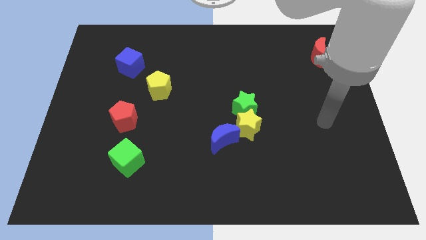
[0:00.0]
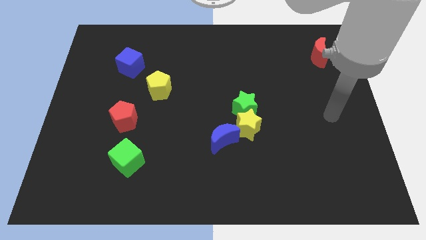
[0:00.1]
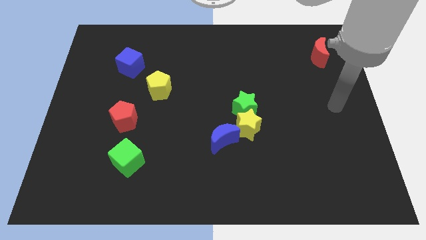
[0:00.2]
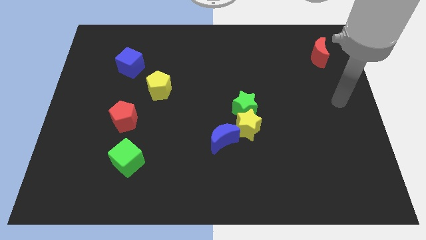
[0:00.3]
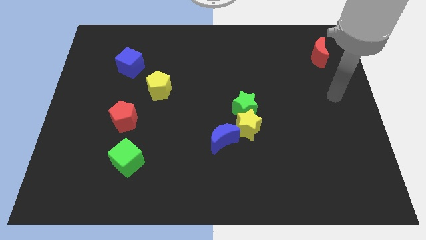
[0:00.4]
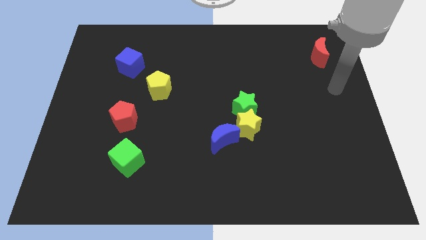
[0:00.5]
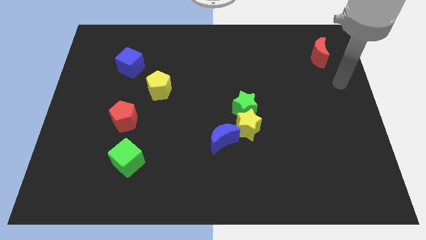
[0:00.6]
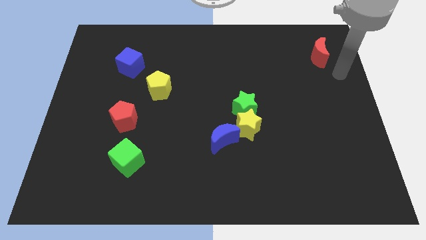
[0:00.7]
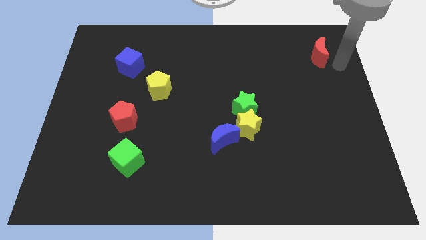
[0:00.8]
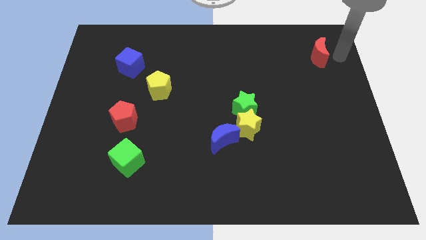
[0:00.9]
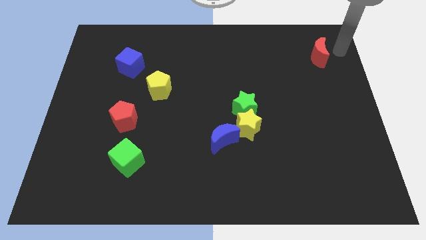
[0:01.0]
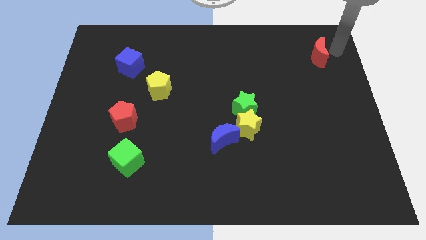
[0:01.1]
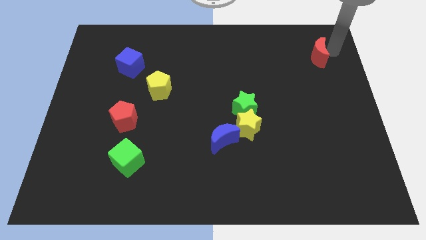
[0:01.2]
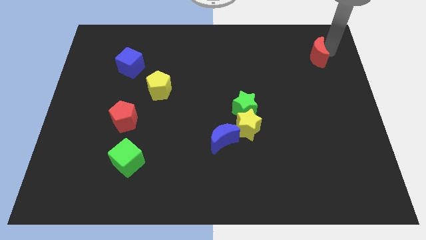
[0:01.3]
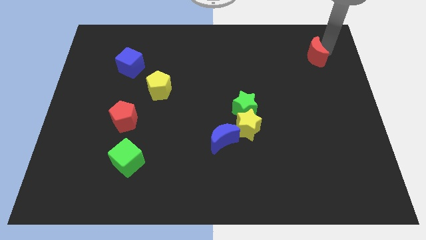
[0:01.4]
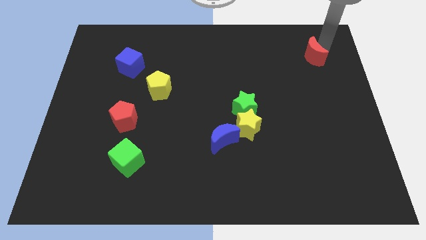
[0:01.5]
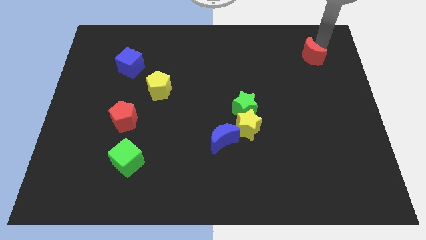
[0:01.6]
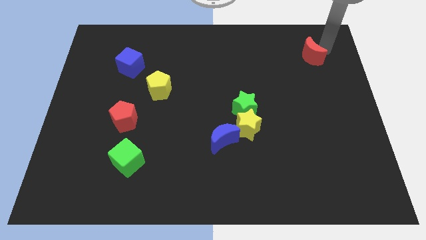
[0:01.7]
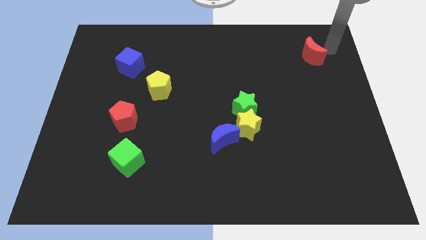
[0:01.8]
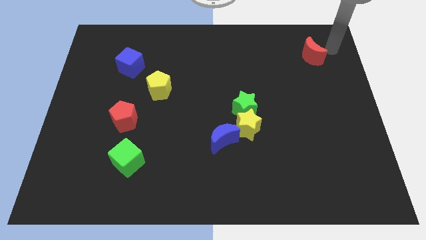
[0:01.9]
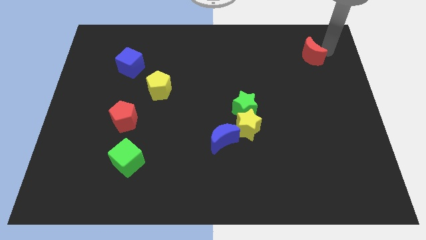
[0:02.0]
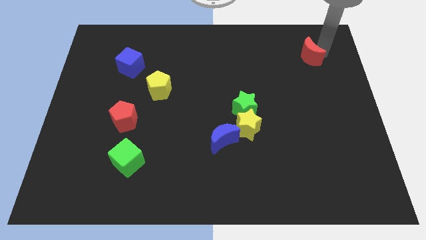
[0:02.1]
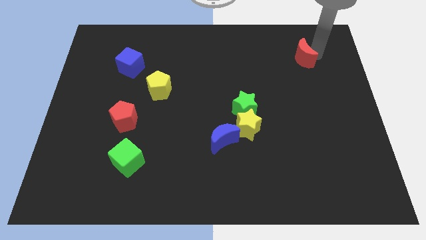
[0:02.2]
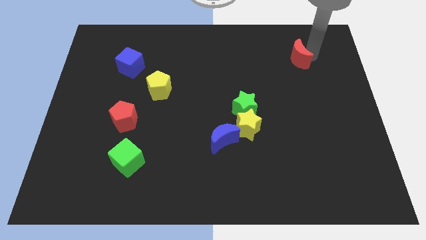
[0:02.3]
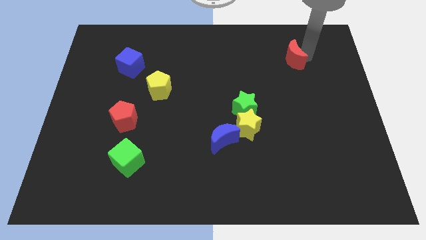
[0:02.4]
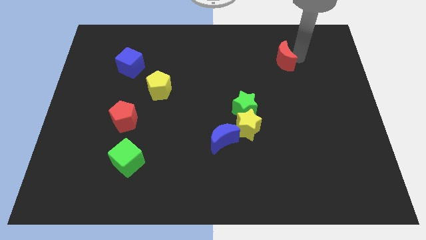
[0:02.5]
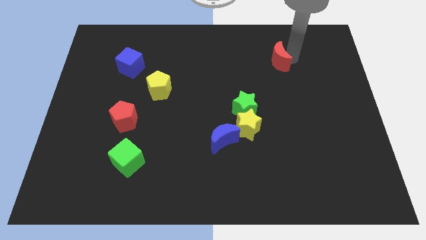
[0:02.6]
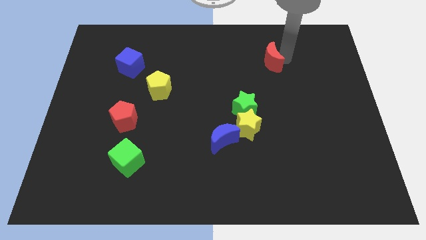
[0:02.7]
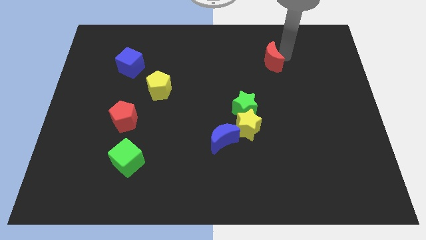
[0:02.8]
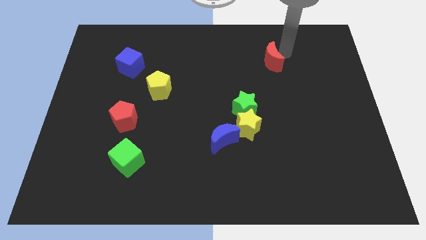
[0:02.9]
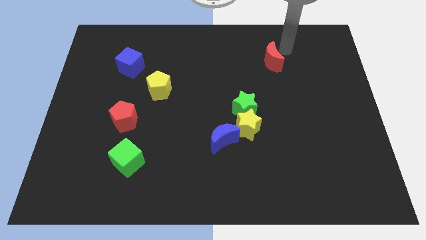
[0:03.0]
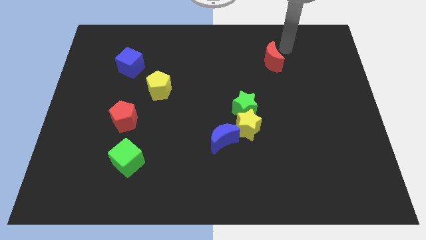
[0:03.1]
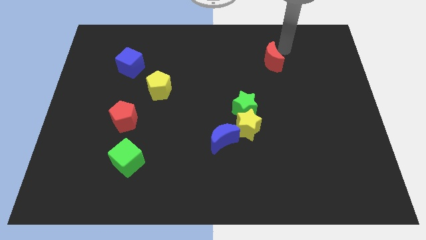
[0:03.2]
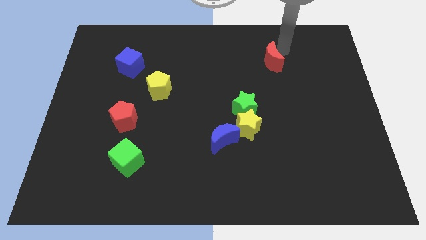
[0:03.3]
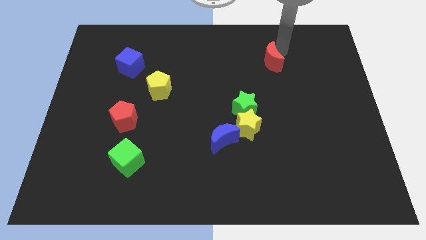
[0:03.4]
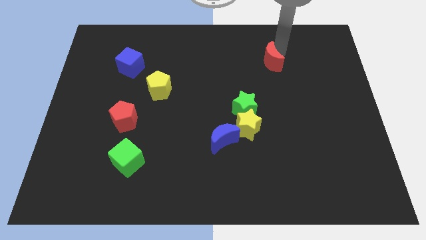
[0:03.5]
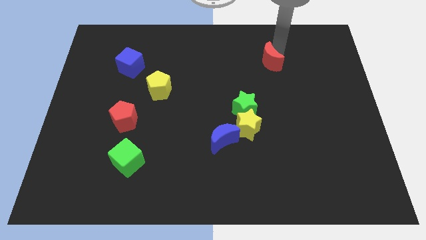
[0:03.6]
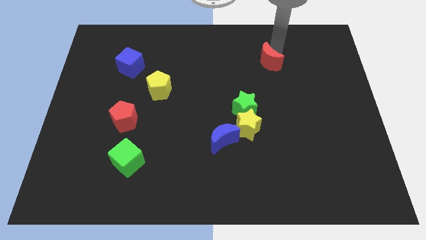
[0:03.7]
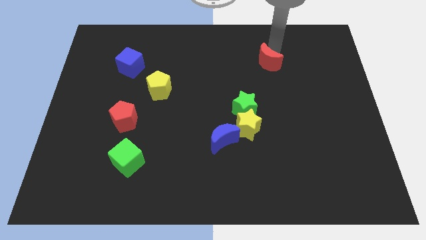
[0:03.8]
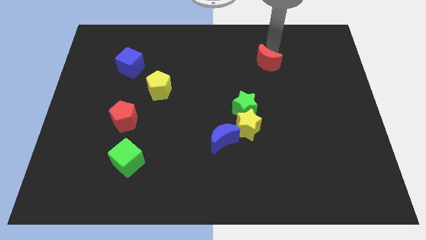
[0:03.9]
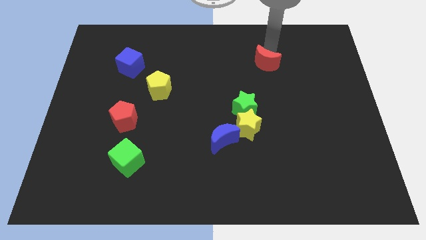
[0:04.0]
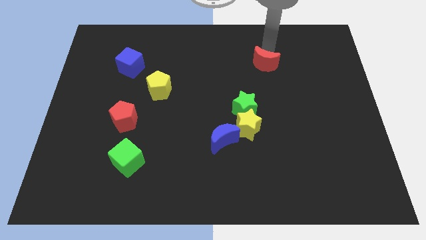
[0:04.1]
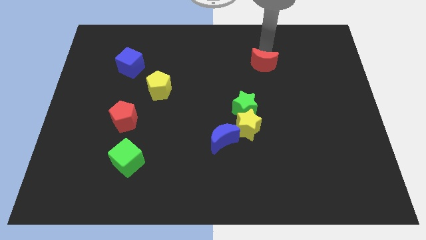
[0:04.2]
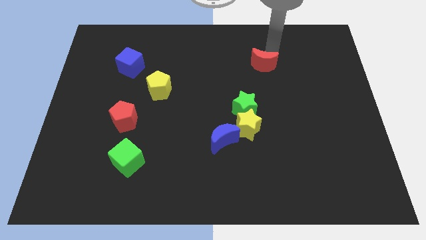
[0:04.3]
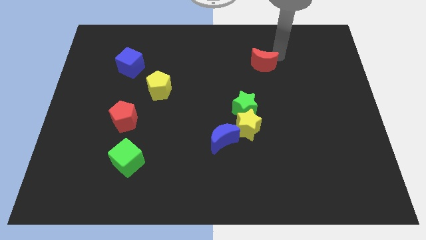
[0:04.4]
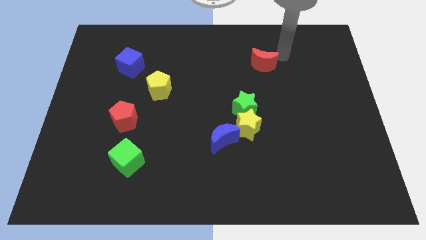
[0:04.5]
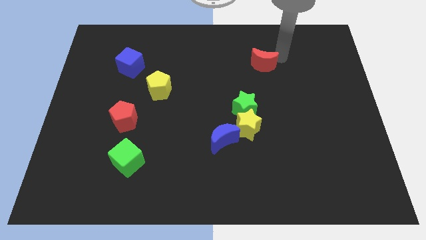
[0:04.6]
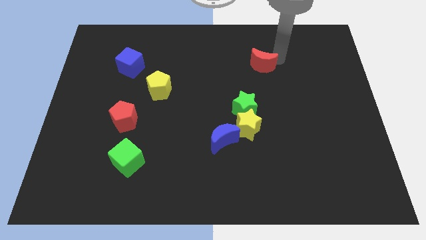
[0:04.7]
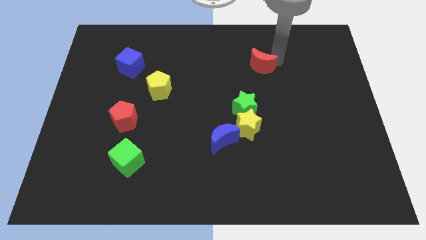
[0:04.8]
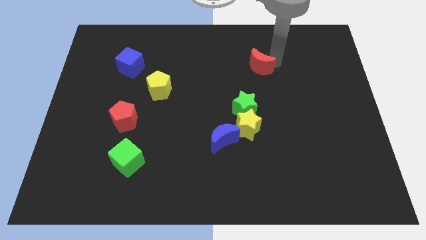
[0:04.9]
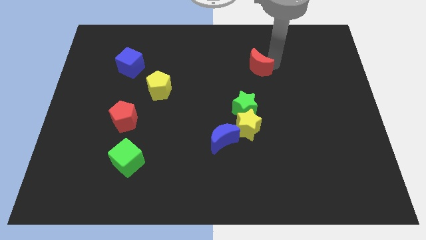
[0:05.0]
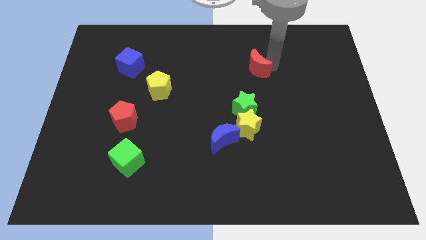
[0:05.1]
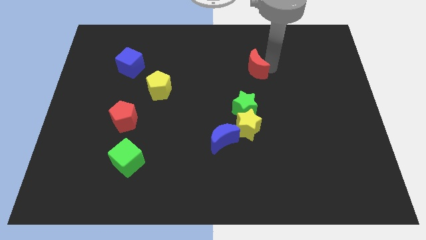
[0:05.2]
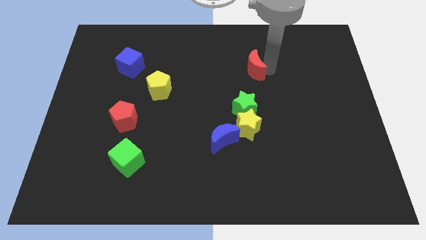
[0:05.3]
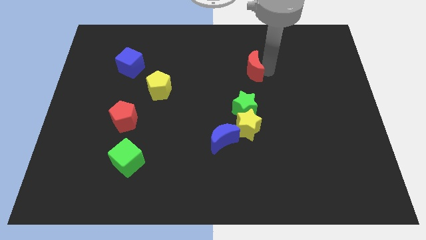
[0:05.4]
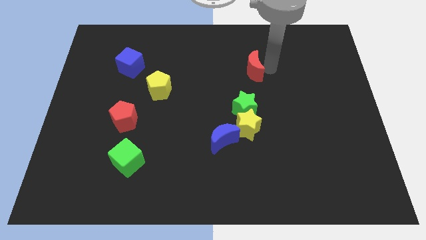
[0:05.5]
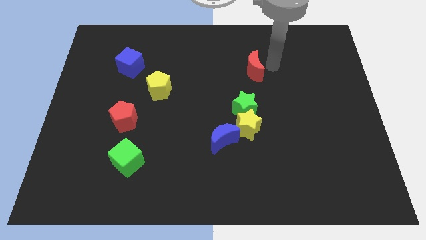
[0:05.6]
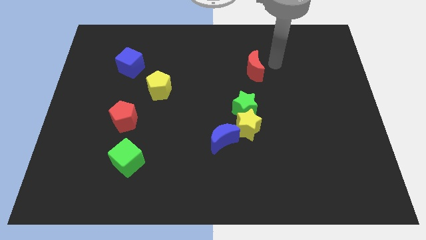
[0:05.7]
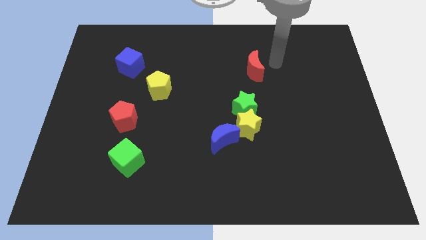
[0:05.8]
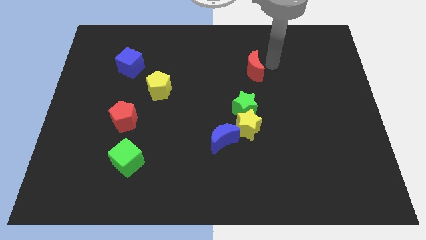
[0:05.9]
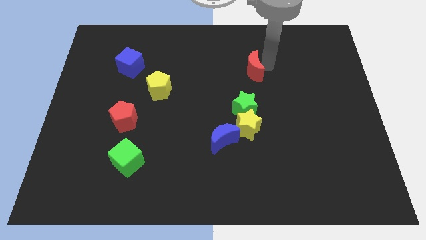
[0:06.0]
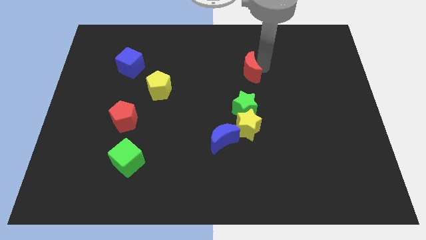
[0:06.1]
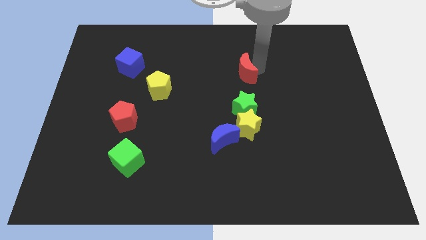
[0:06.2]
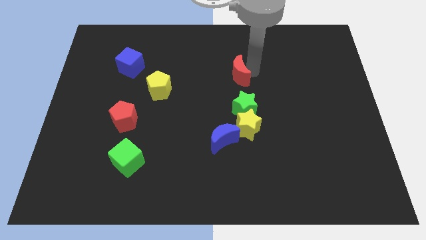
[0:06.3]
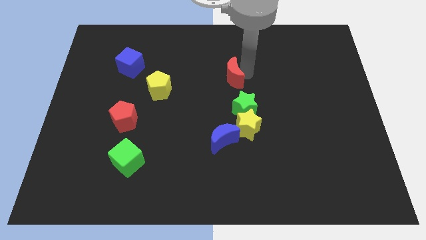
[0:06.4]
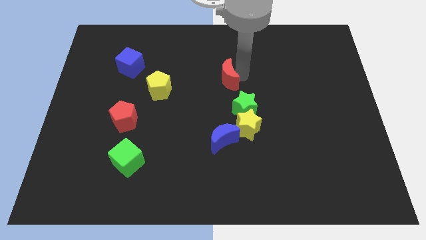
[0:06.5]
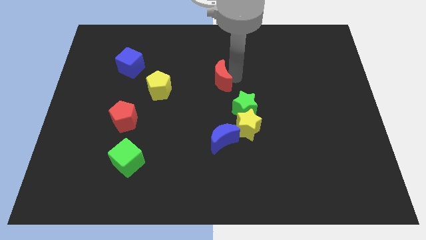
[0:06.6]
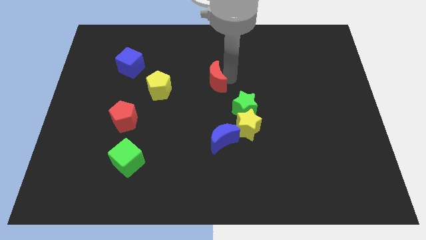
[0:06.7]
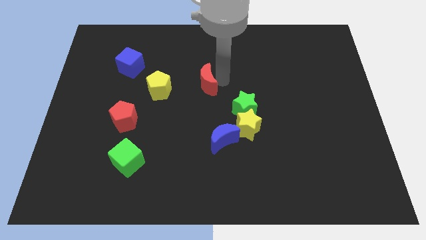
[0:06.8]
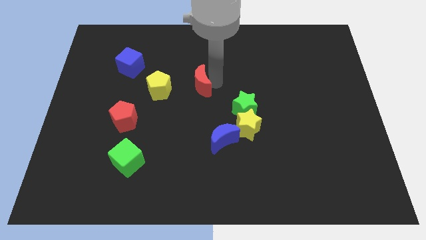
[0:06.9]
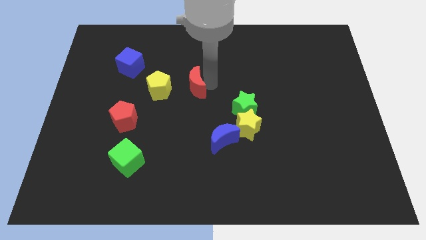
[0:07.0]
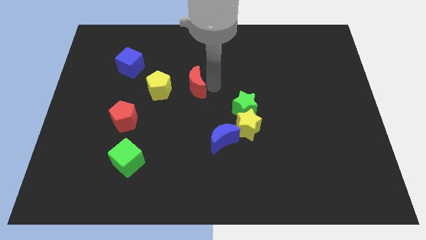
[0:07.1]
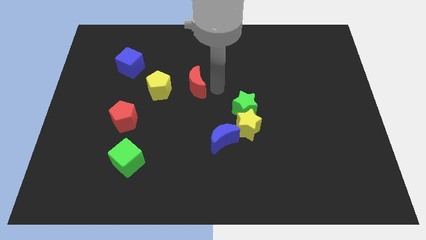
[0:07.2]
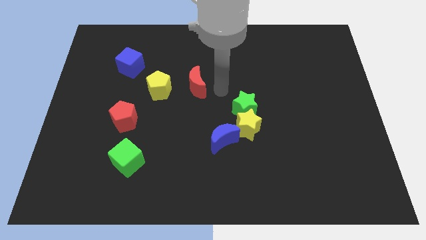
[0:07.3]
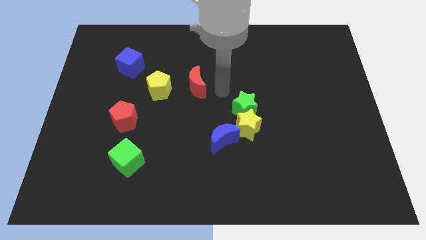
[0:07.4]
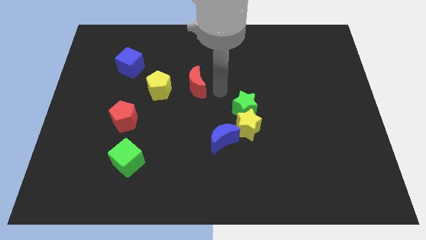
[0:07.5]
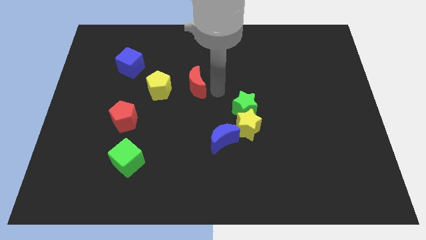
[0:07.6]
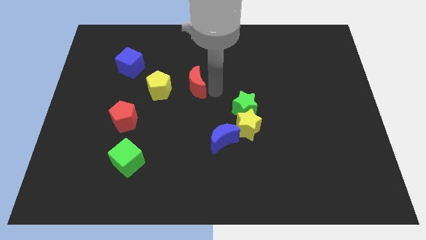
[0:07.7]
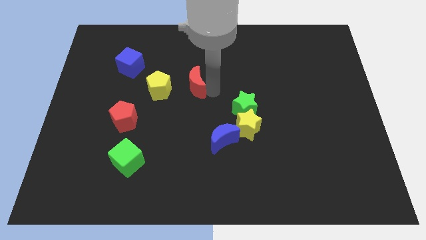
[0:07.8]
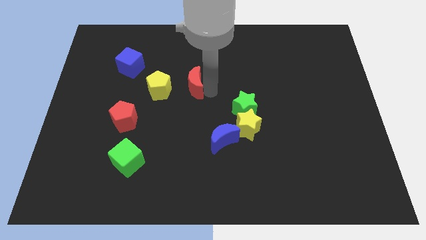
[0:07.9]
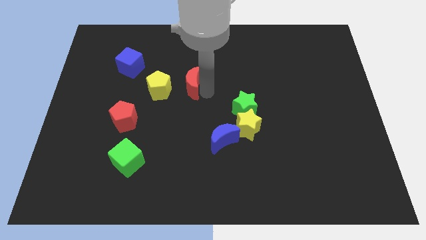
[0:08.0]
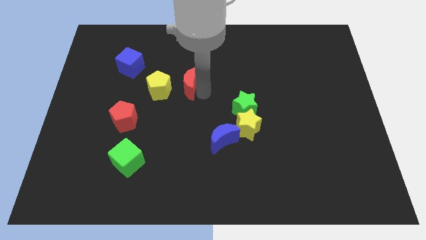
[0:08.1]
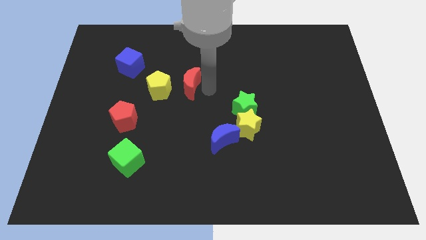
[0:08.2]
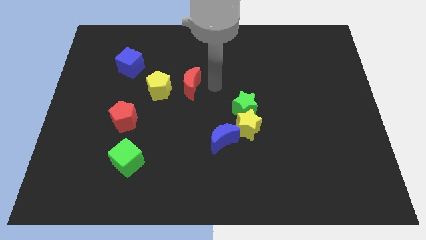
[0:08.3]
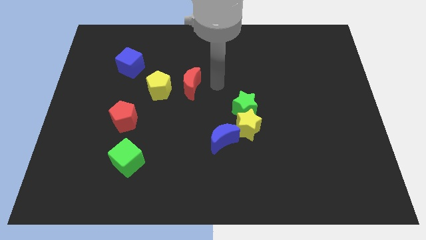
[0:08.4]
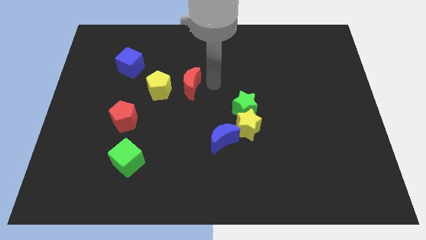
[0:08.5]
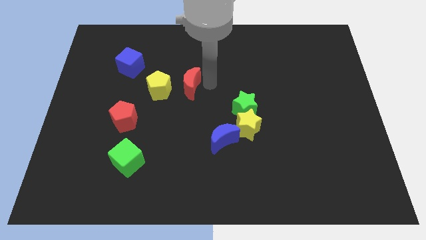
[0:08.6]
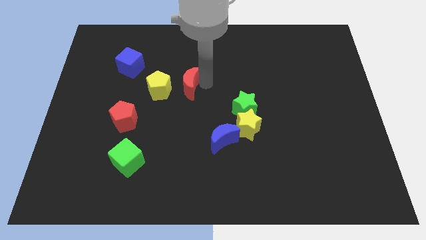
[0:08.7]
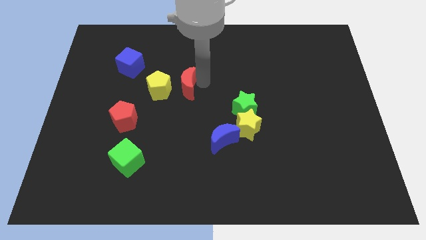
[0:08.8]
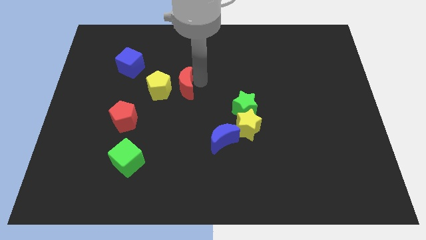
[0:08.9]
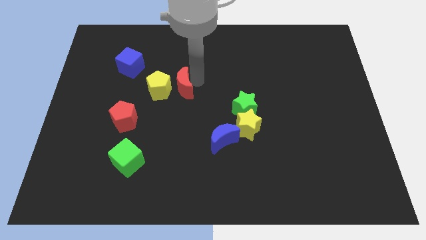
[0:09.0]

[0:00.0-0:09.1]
move the red moon close to the yellow pentagon
